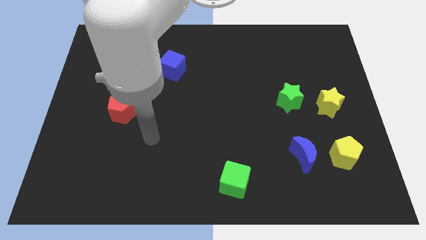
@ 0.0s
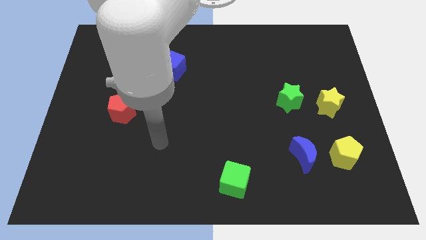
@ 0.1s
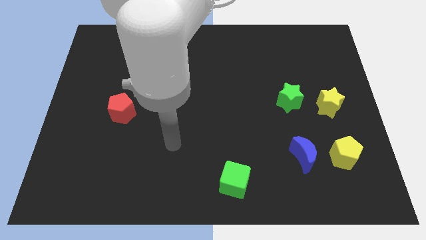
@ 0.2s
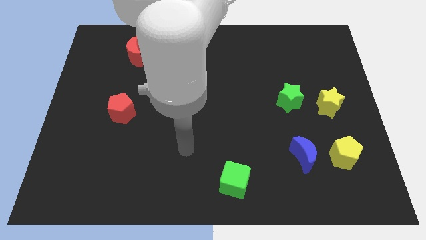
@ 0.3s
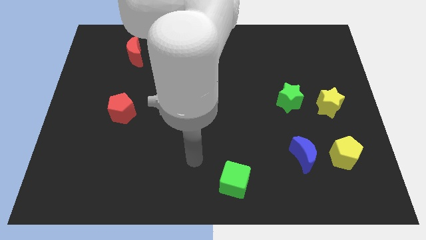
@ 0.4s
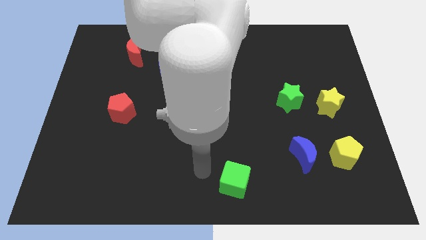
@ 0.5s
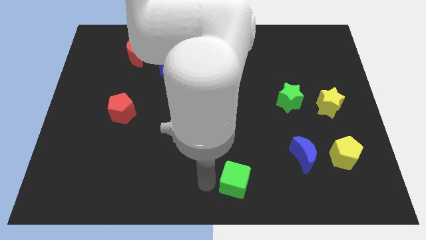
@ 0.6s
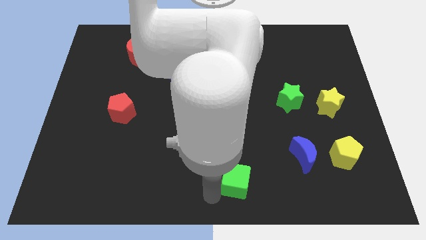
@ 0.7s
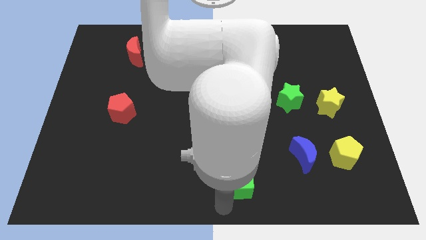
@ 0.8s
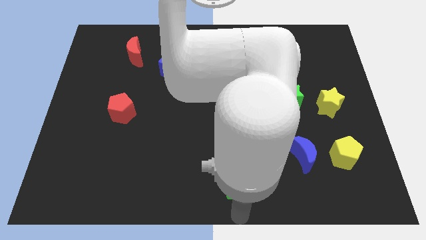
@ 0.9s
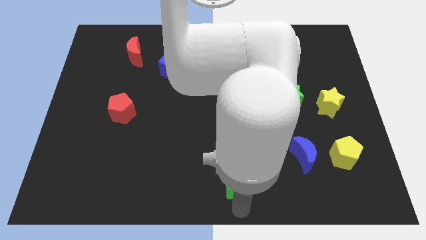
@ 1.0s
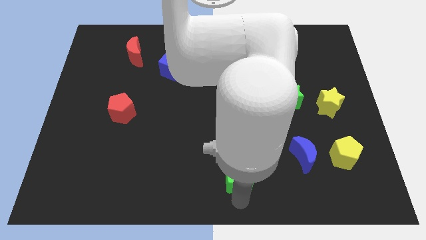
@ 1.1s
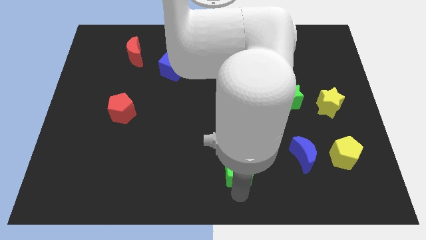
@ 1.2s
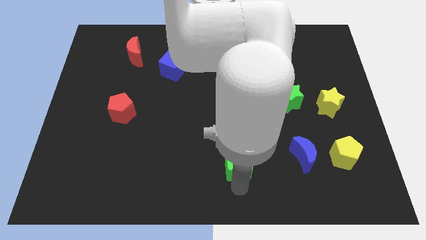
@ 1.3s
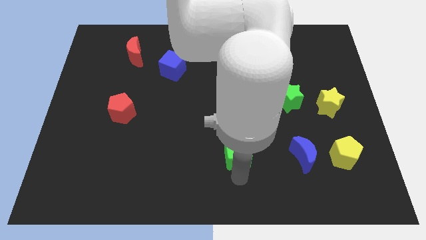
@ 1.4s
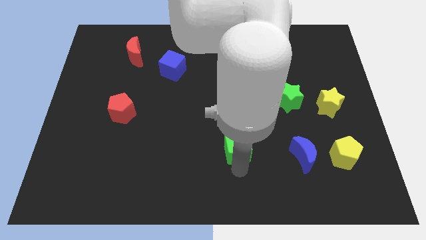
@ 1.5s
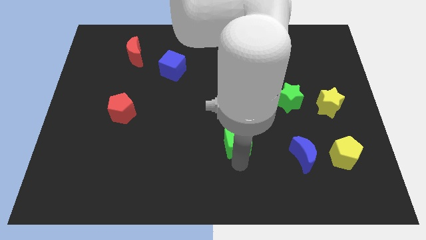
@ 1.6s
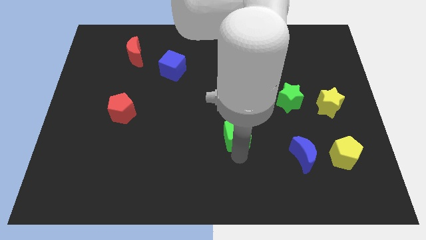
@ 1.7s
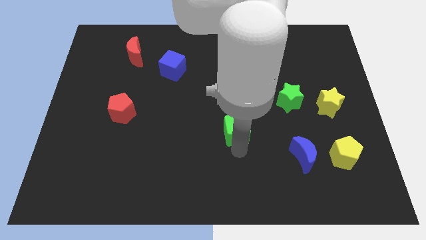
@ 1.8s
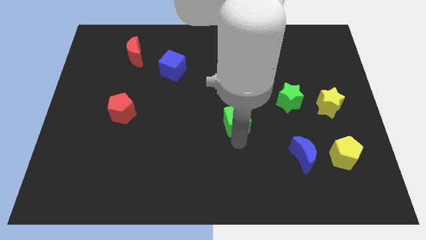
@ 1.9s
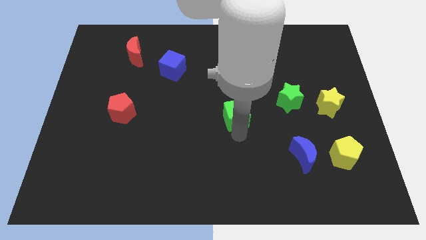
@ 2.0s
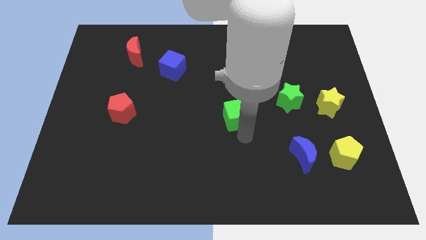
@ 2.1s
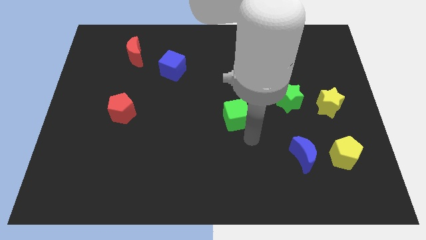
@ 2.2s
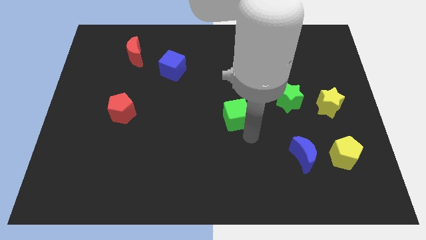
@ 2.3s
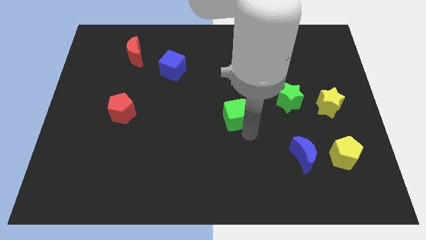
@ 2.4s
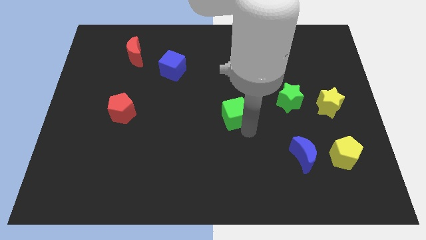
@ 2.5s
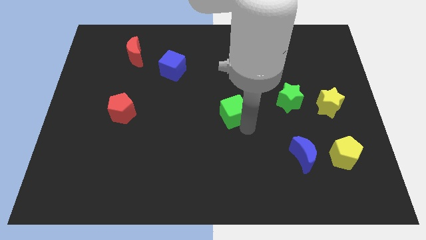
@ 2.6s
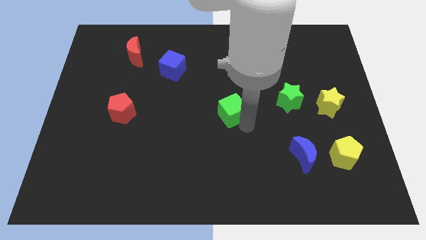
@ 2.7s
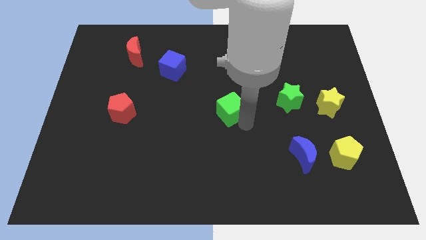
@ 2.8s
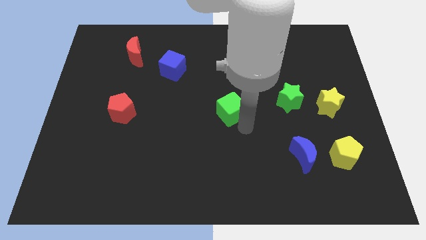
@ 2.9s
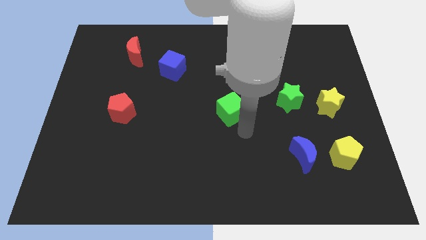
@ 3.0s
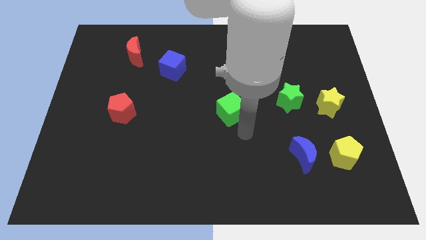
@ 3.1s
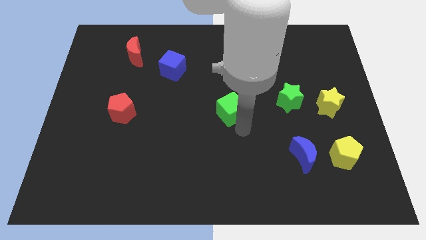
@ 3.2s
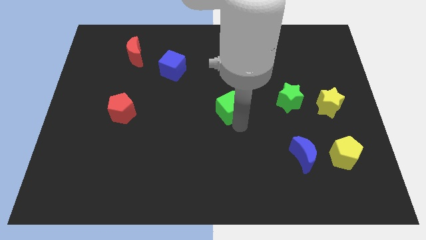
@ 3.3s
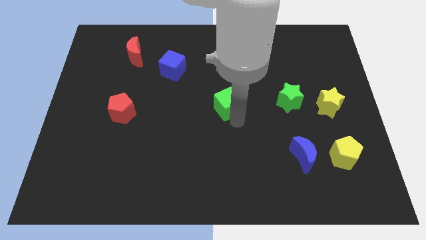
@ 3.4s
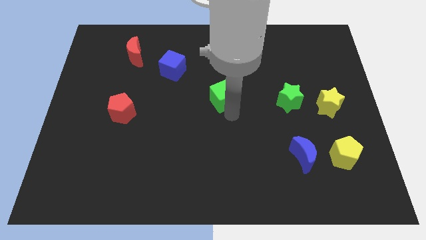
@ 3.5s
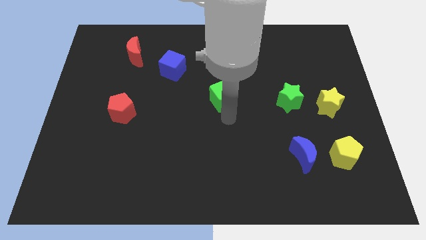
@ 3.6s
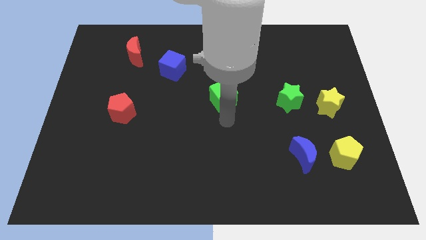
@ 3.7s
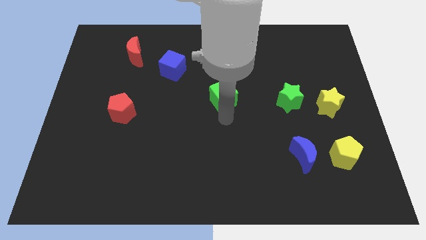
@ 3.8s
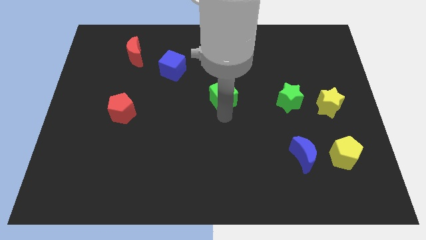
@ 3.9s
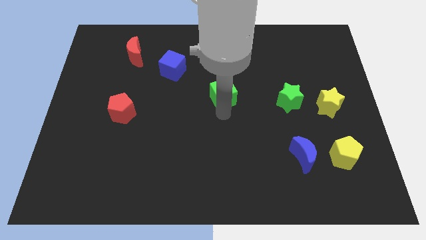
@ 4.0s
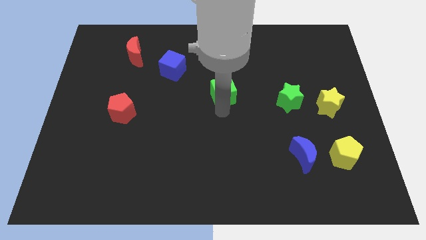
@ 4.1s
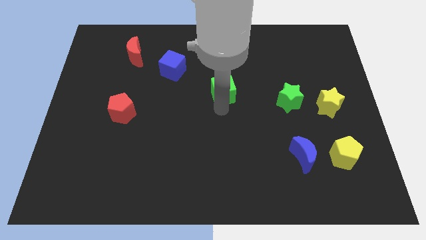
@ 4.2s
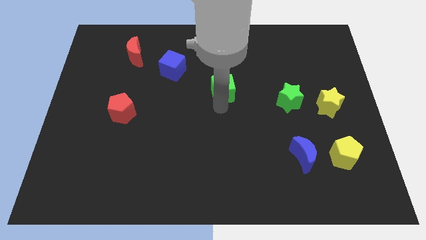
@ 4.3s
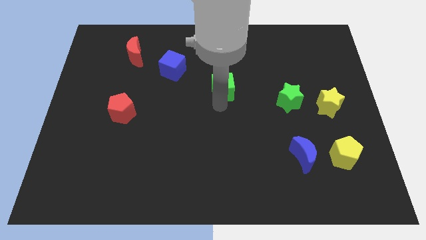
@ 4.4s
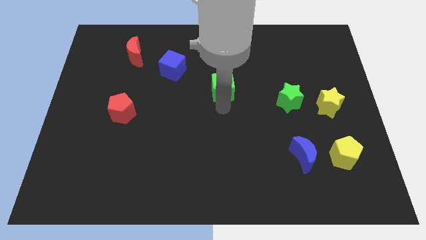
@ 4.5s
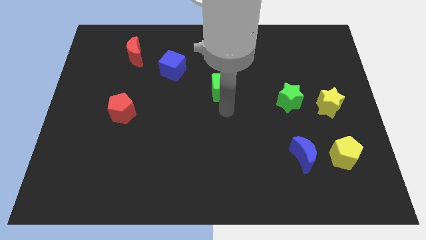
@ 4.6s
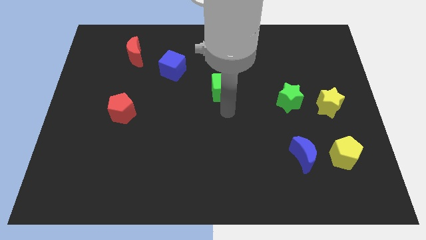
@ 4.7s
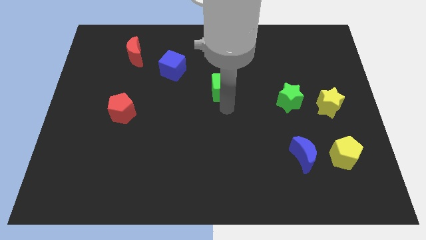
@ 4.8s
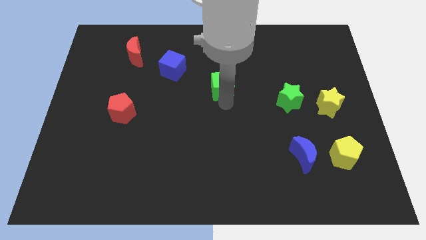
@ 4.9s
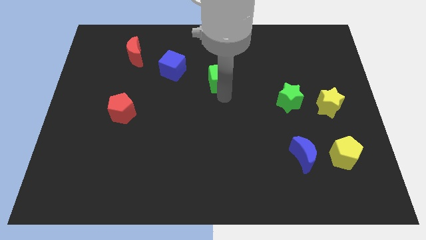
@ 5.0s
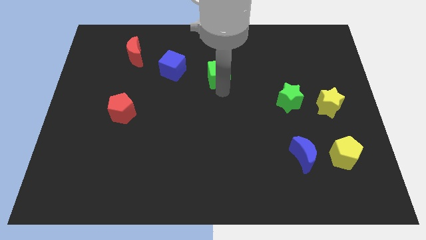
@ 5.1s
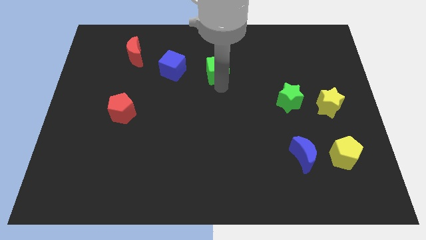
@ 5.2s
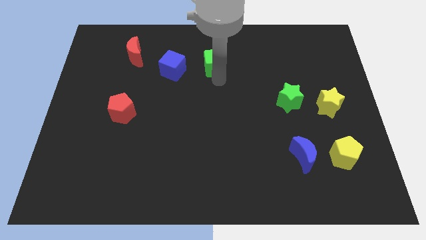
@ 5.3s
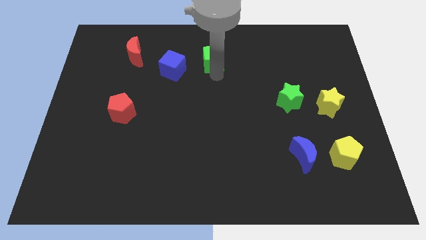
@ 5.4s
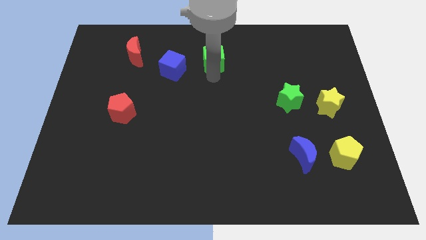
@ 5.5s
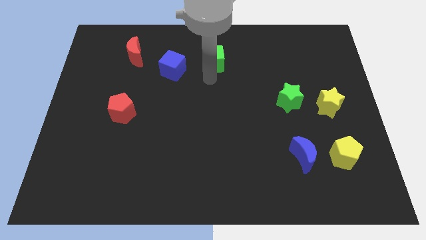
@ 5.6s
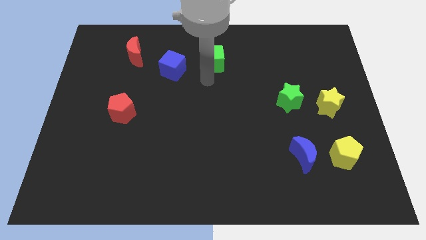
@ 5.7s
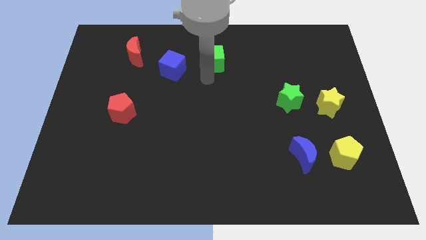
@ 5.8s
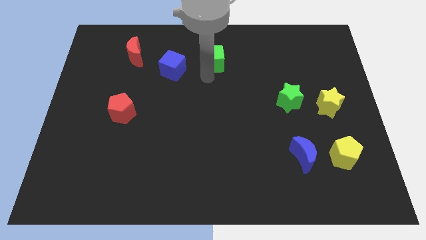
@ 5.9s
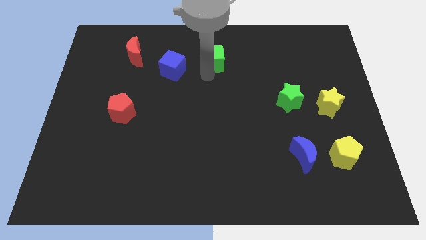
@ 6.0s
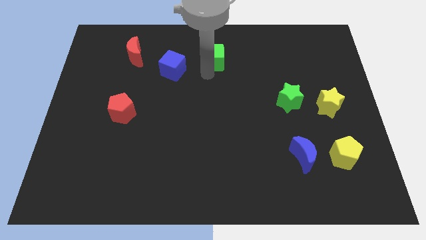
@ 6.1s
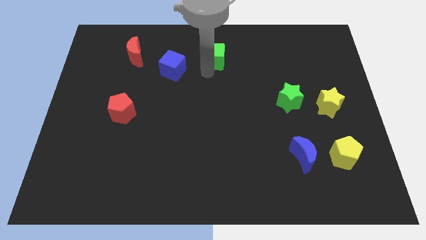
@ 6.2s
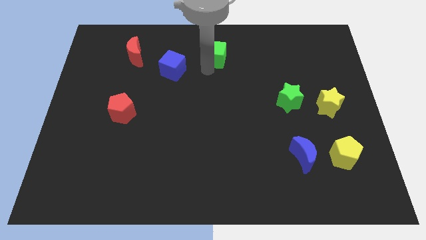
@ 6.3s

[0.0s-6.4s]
push the green cube to the top side
